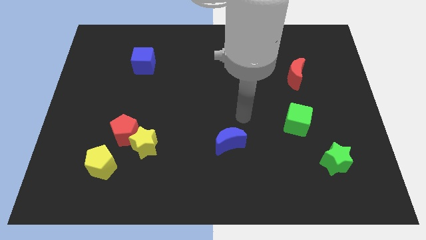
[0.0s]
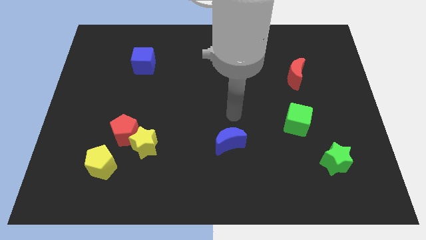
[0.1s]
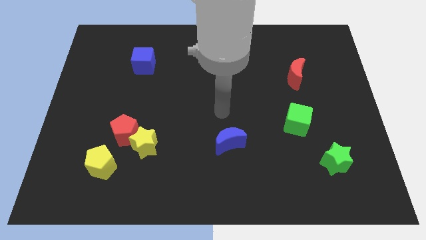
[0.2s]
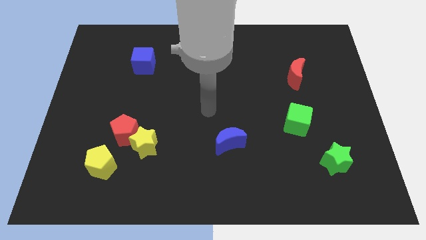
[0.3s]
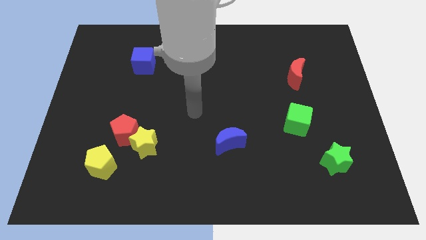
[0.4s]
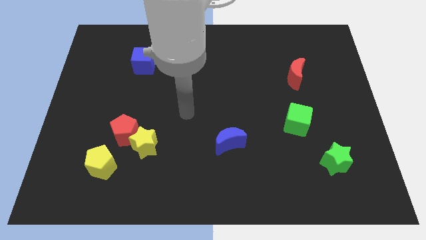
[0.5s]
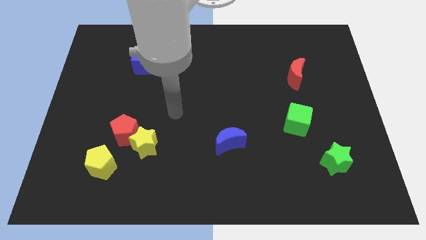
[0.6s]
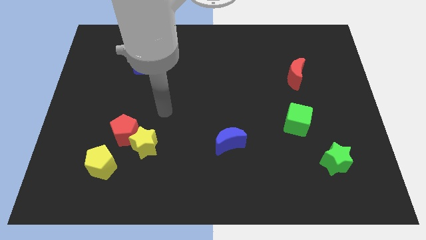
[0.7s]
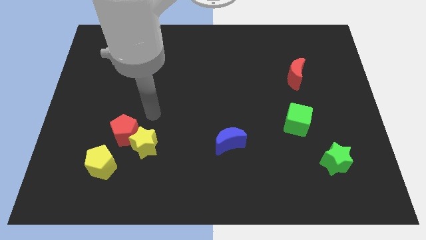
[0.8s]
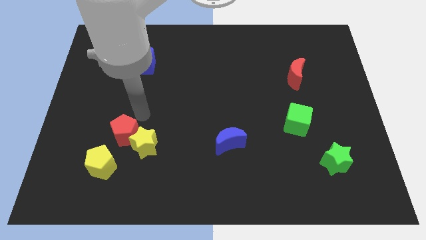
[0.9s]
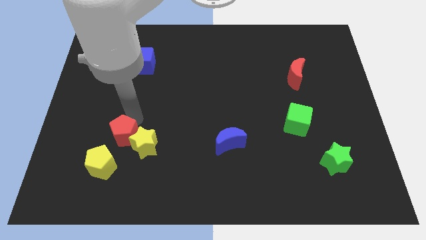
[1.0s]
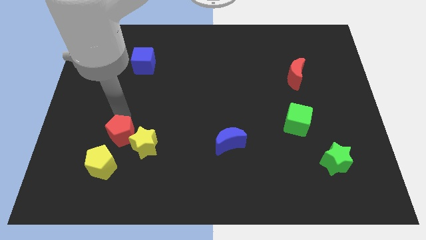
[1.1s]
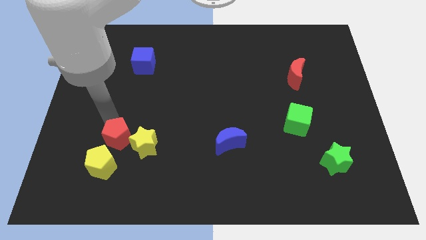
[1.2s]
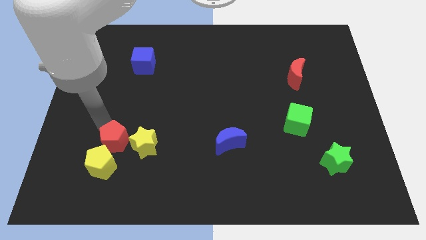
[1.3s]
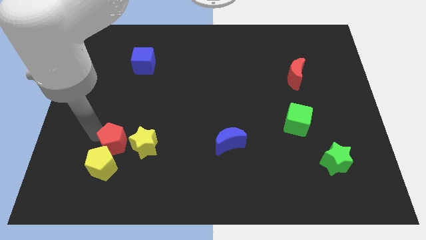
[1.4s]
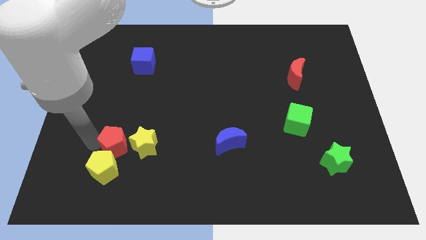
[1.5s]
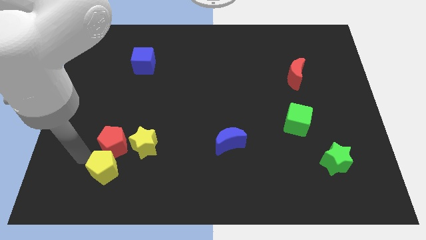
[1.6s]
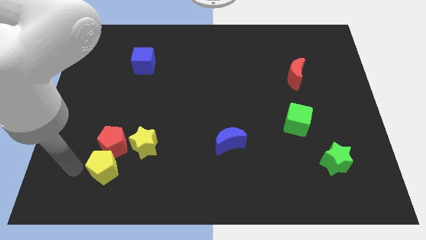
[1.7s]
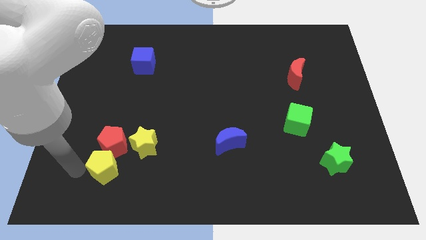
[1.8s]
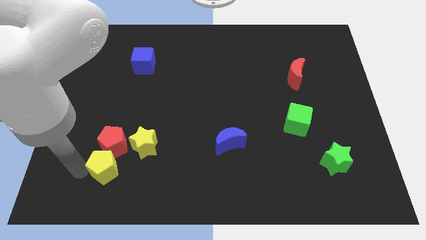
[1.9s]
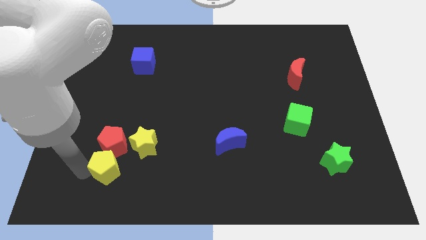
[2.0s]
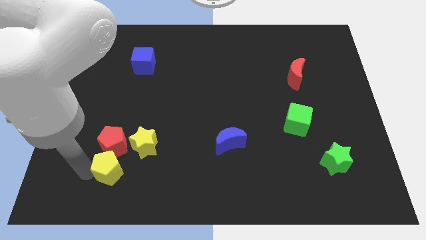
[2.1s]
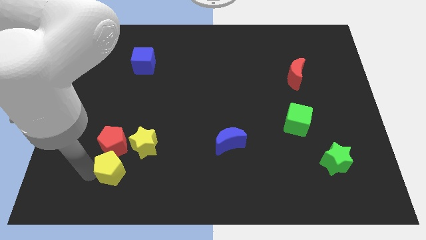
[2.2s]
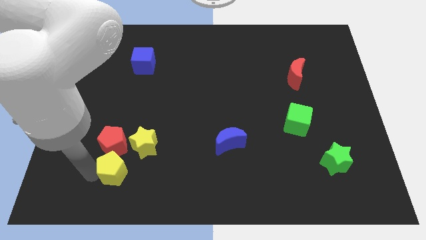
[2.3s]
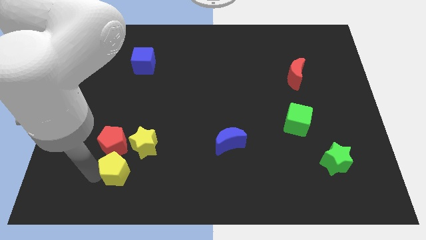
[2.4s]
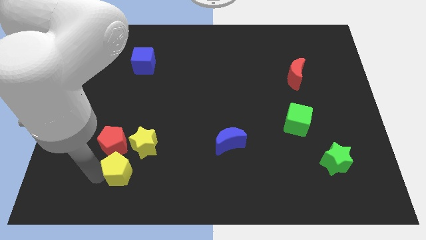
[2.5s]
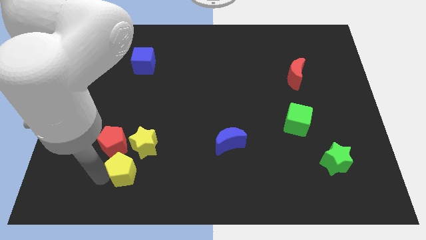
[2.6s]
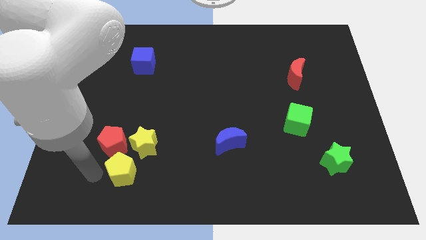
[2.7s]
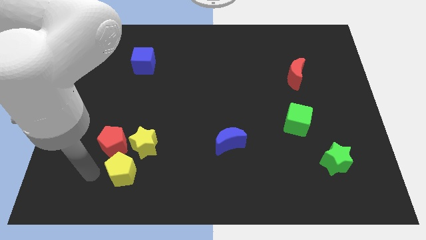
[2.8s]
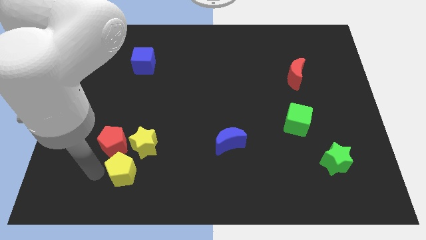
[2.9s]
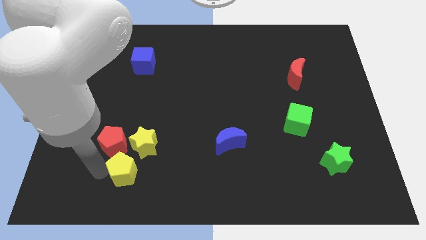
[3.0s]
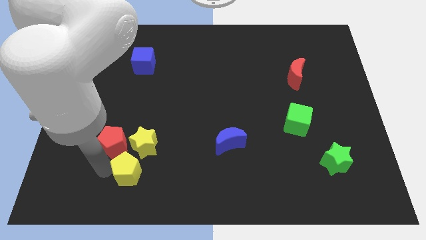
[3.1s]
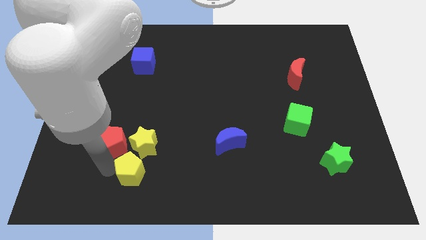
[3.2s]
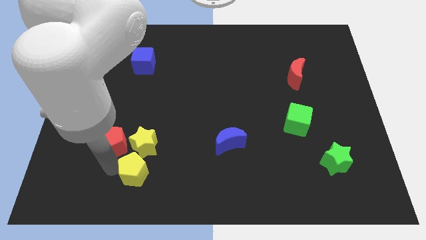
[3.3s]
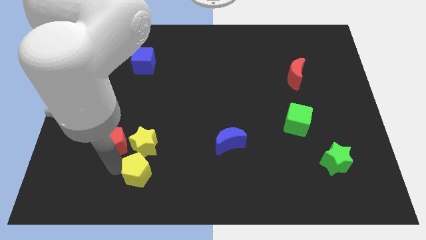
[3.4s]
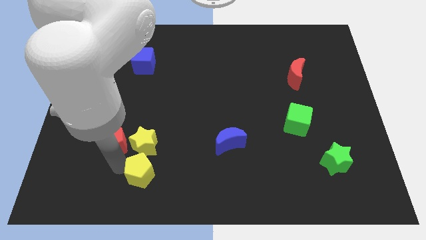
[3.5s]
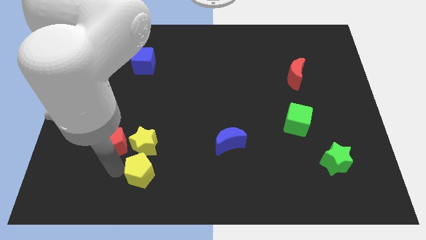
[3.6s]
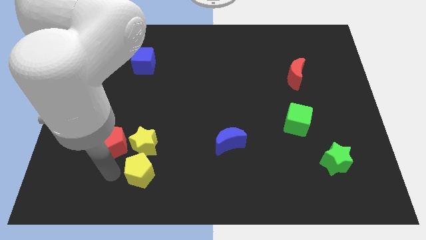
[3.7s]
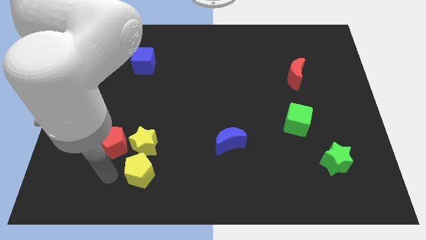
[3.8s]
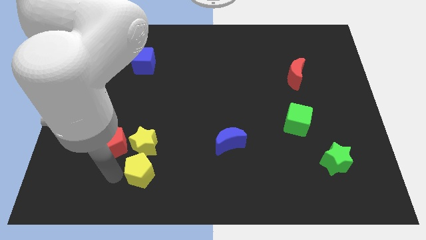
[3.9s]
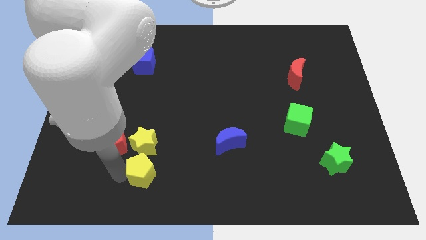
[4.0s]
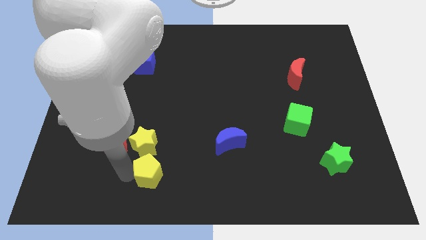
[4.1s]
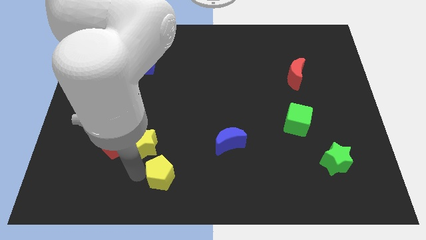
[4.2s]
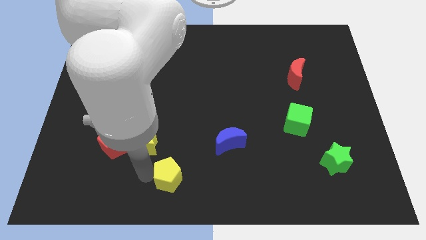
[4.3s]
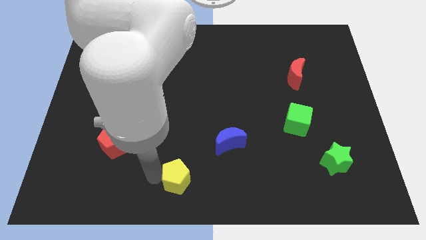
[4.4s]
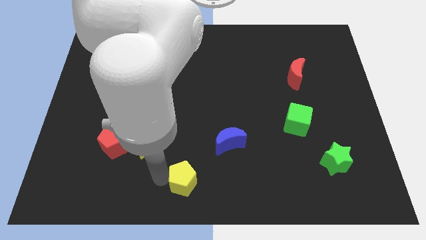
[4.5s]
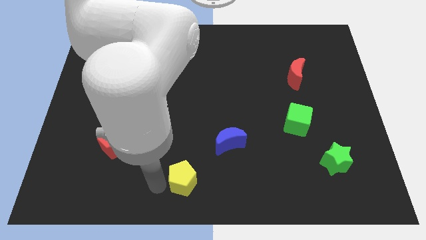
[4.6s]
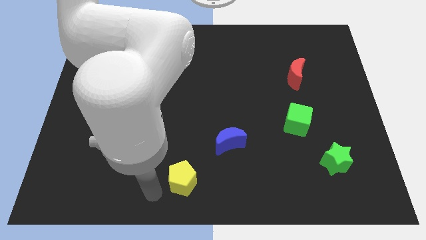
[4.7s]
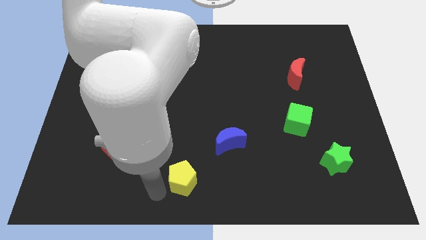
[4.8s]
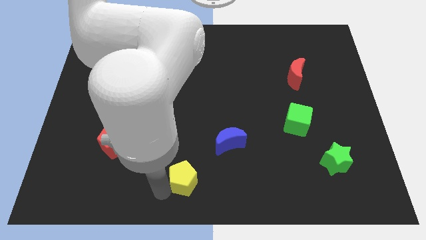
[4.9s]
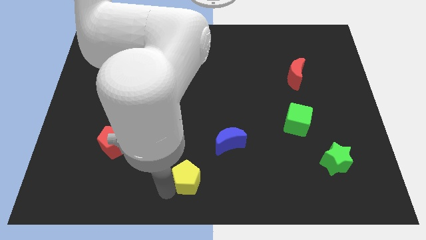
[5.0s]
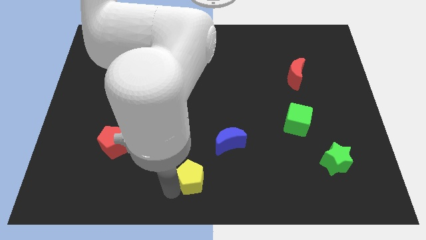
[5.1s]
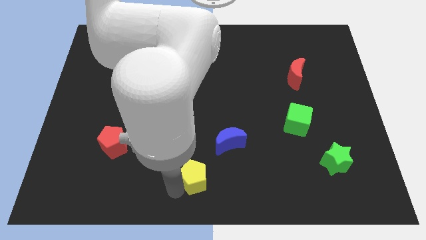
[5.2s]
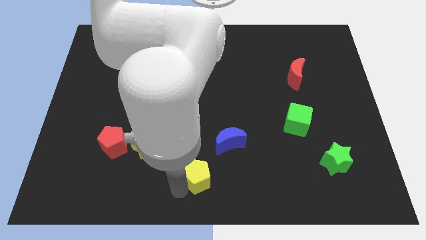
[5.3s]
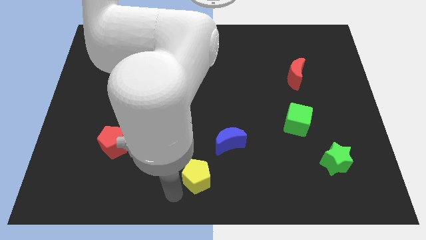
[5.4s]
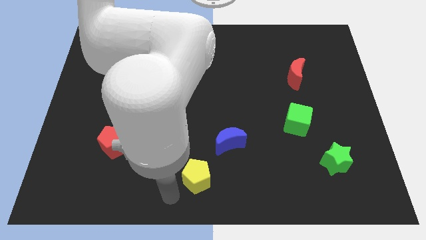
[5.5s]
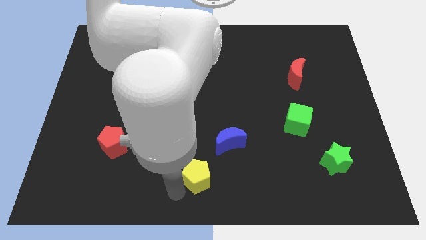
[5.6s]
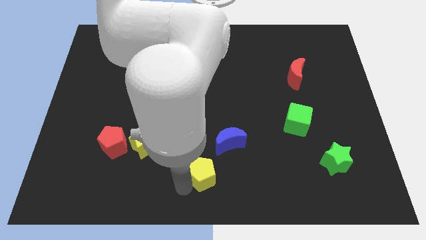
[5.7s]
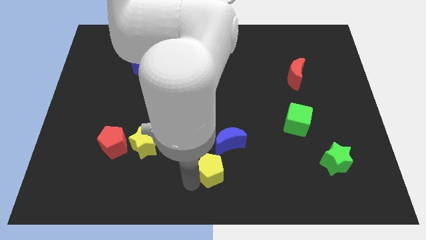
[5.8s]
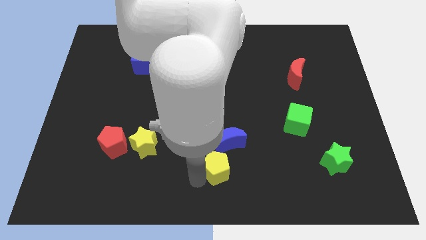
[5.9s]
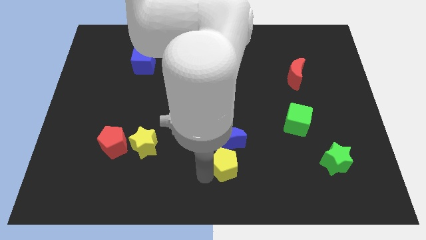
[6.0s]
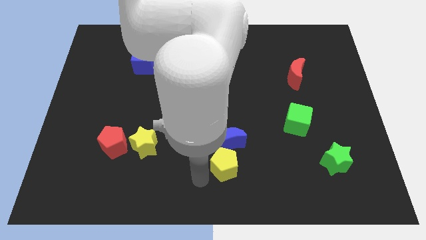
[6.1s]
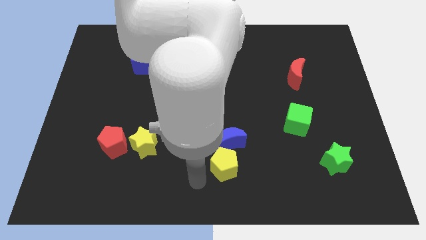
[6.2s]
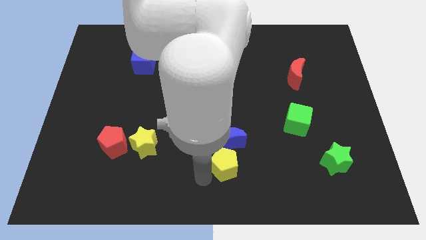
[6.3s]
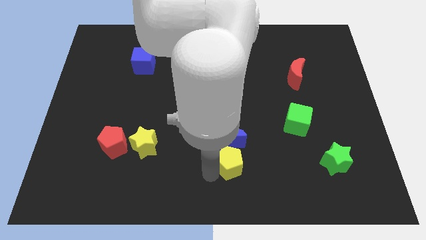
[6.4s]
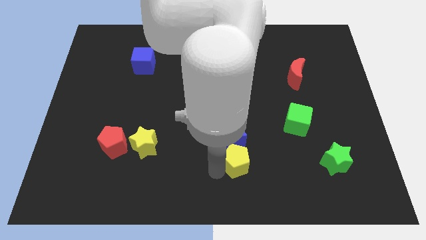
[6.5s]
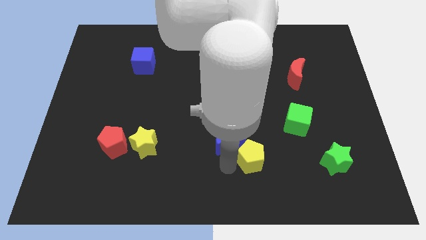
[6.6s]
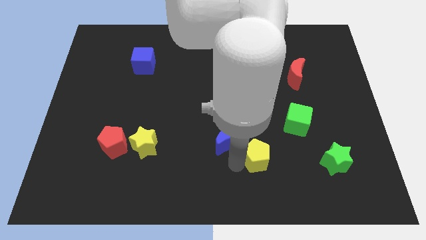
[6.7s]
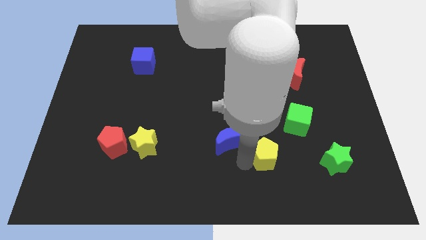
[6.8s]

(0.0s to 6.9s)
push the yellow pentagon diagonally down and to the left of the green cube

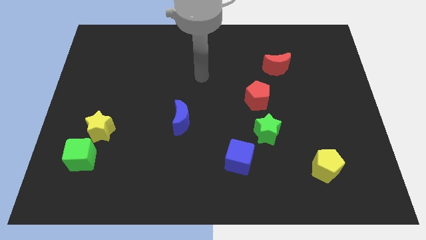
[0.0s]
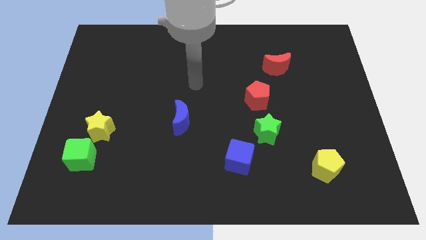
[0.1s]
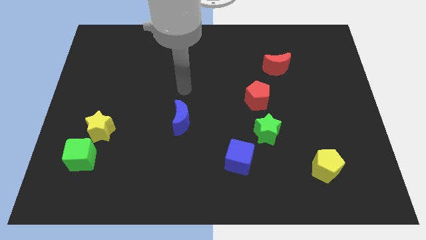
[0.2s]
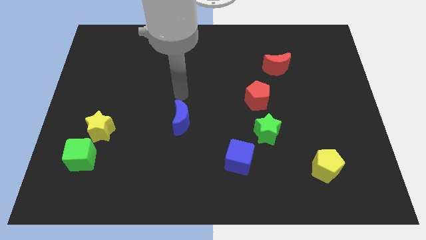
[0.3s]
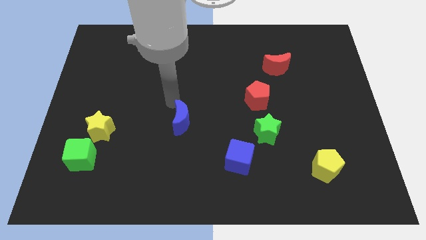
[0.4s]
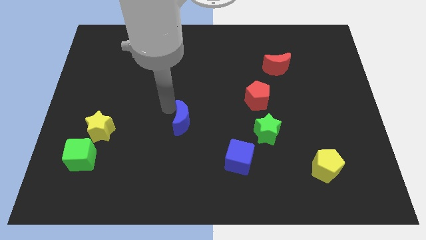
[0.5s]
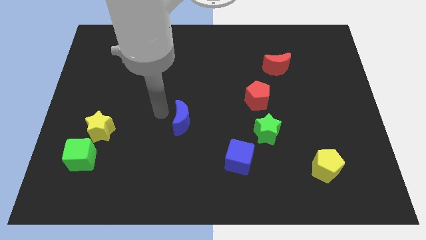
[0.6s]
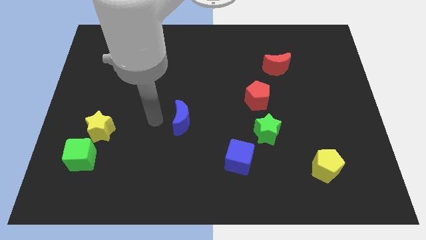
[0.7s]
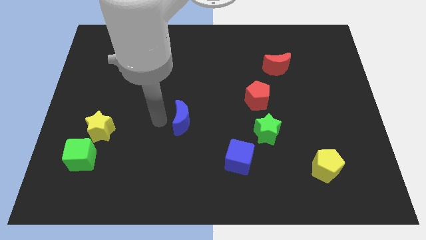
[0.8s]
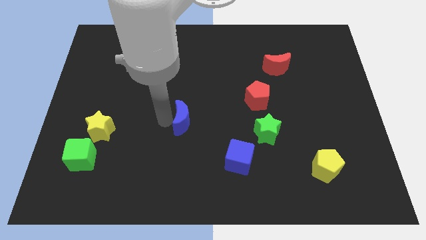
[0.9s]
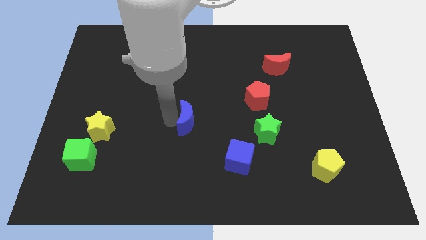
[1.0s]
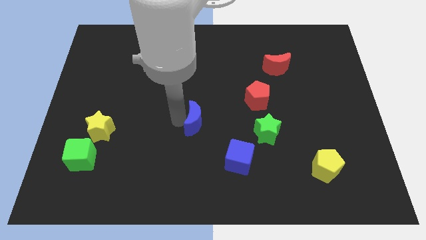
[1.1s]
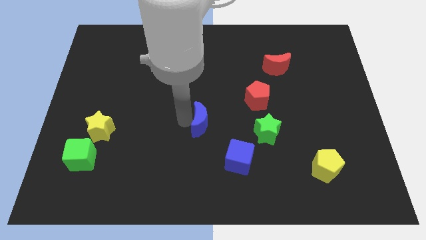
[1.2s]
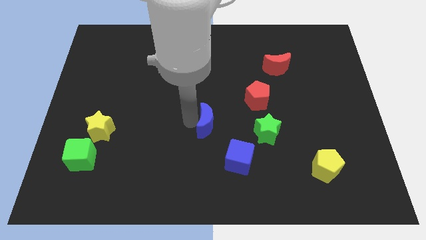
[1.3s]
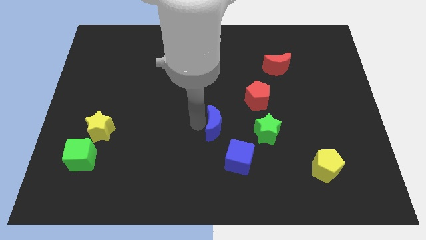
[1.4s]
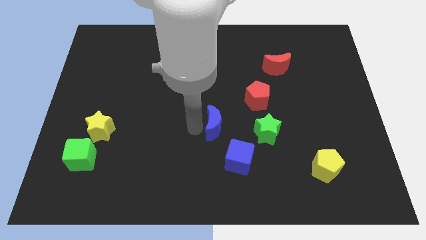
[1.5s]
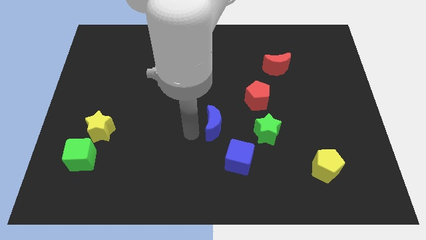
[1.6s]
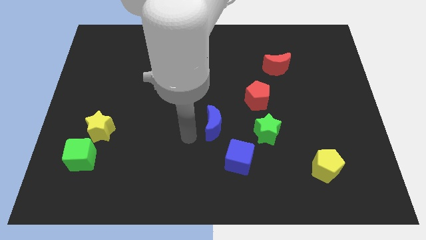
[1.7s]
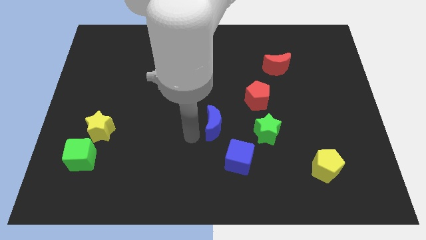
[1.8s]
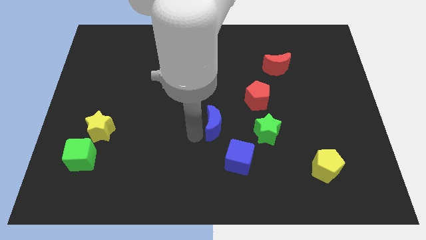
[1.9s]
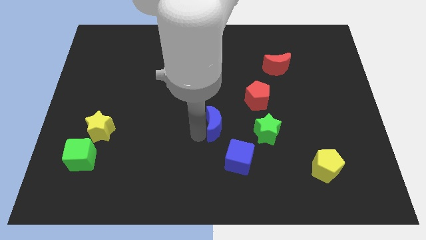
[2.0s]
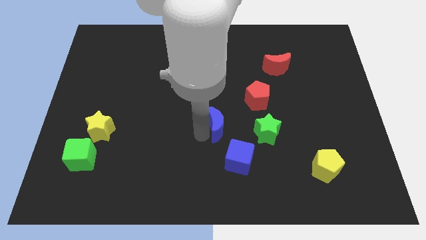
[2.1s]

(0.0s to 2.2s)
push the blue moon to the bottom left of the red pentagon
